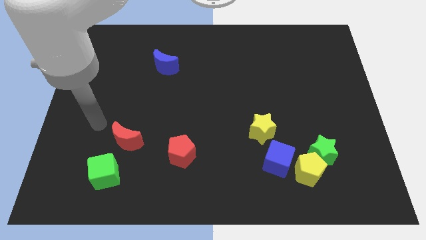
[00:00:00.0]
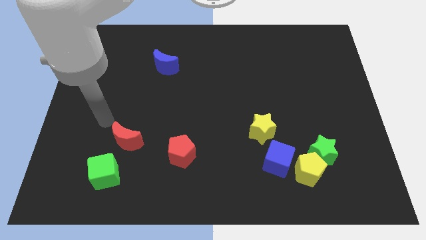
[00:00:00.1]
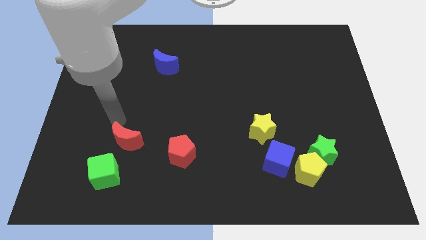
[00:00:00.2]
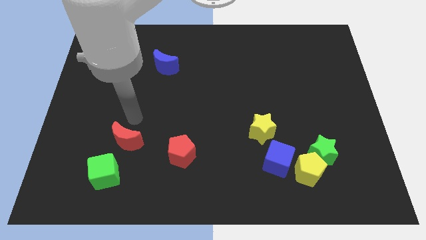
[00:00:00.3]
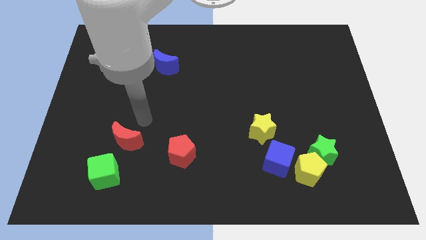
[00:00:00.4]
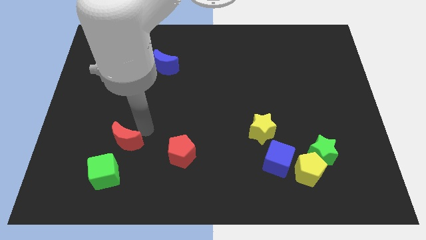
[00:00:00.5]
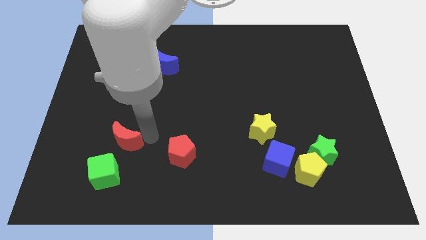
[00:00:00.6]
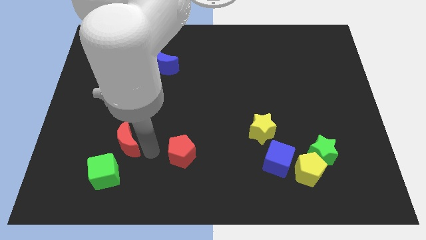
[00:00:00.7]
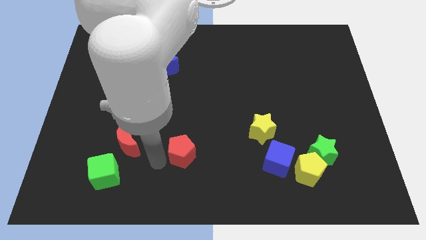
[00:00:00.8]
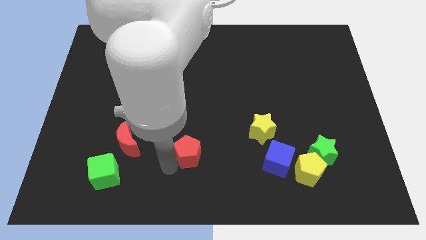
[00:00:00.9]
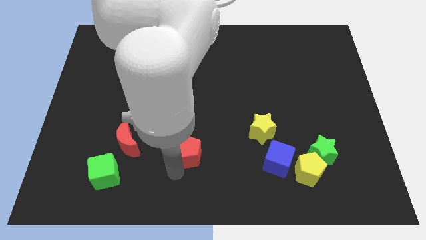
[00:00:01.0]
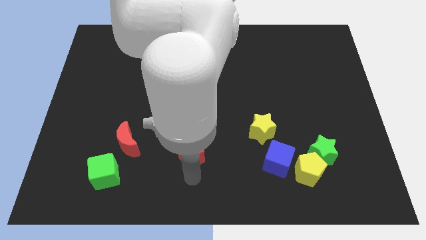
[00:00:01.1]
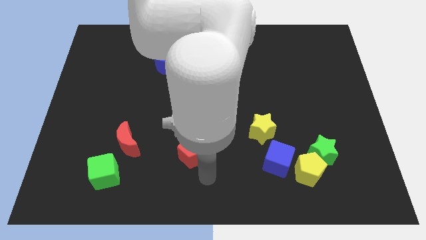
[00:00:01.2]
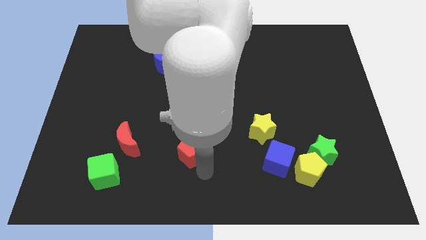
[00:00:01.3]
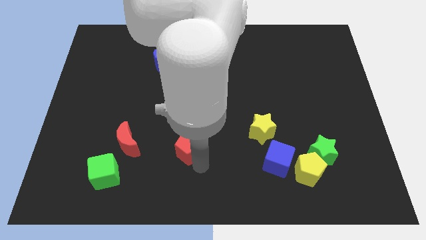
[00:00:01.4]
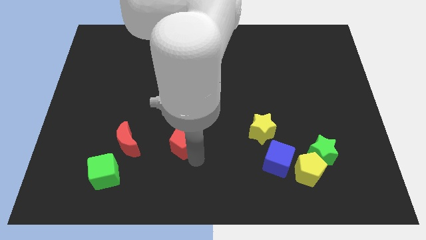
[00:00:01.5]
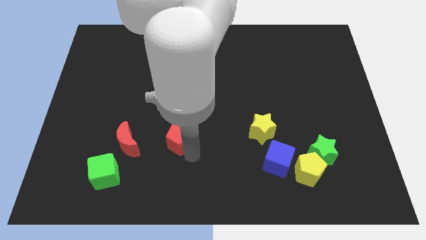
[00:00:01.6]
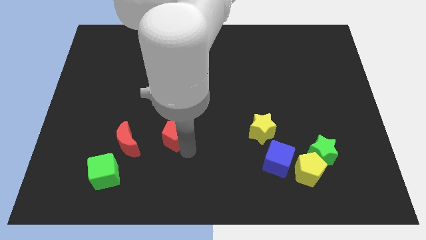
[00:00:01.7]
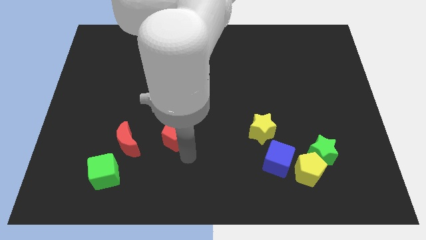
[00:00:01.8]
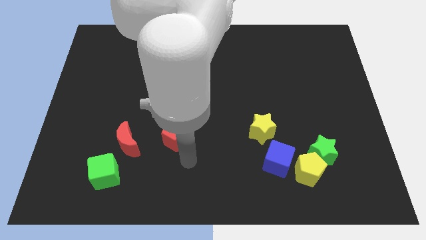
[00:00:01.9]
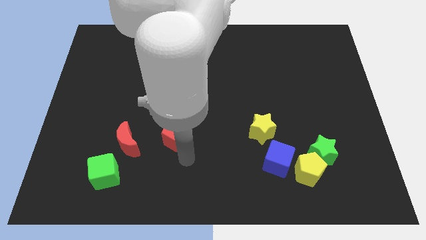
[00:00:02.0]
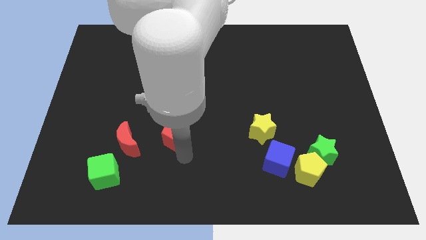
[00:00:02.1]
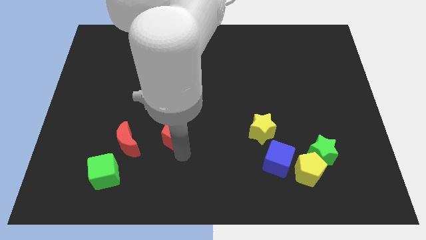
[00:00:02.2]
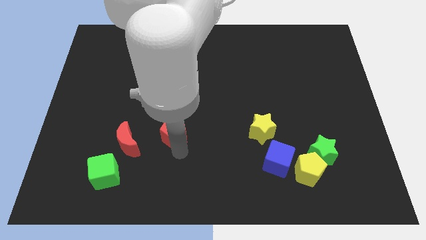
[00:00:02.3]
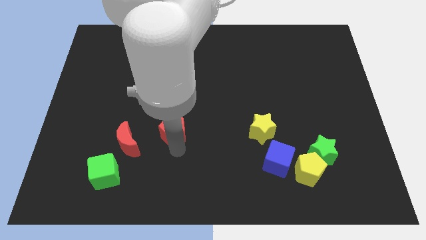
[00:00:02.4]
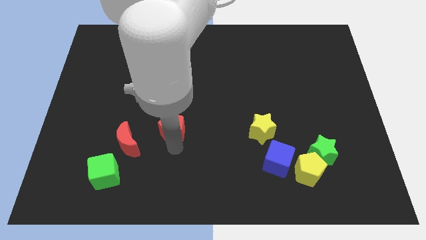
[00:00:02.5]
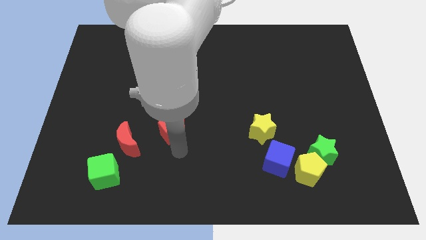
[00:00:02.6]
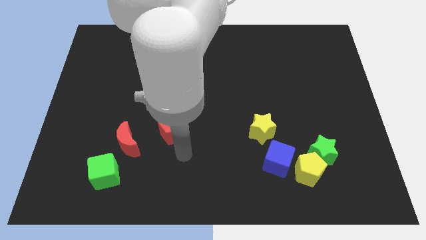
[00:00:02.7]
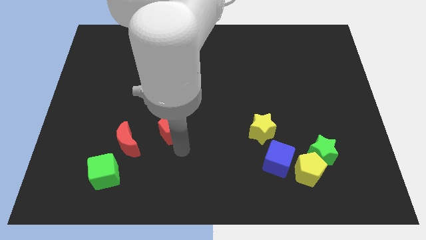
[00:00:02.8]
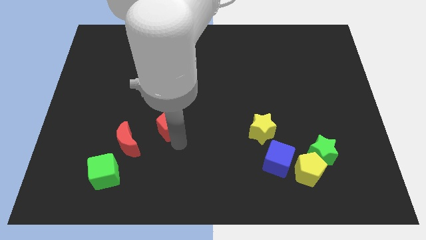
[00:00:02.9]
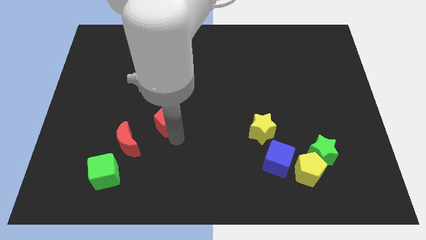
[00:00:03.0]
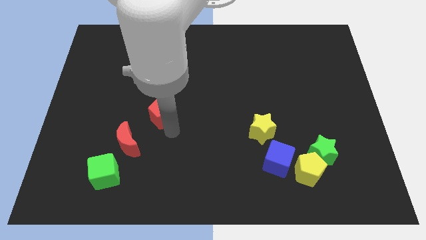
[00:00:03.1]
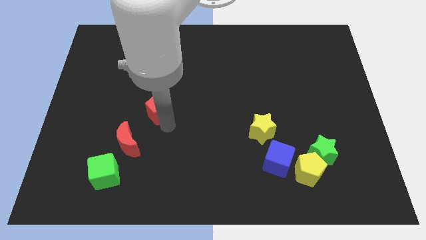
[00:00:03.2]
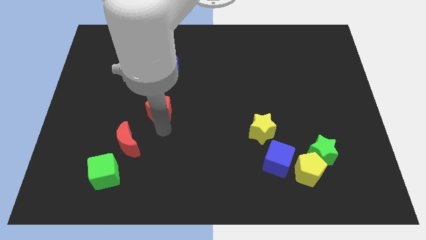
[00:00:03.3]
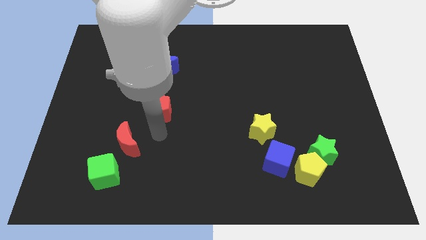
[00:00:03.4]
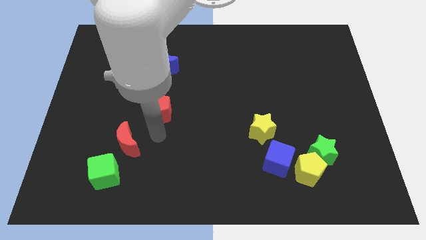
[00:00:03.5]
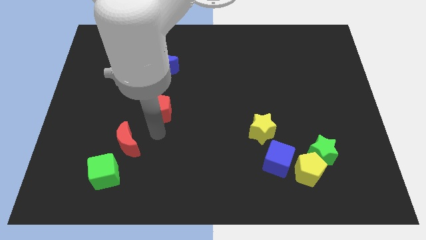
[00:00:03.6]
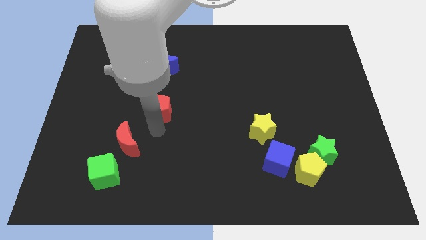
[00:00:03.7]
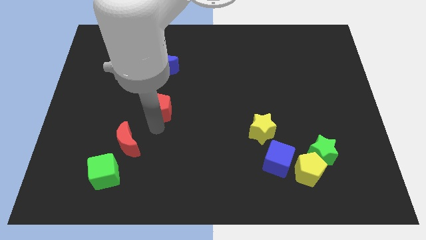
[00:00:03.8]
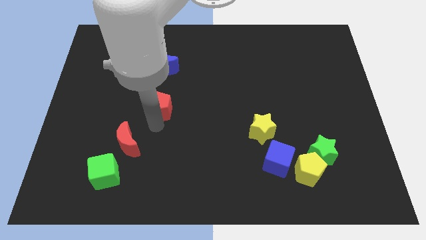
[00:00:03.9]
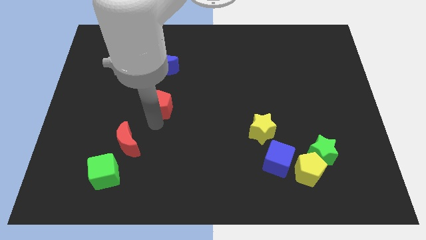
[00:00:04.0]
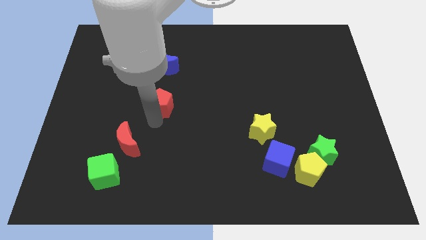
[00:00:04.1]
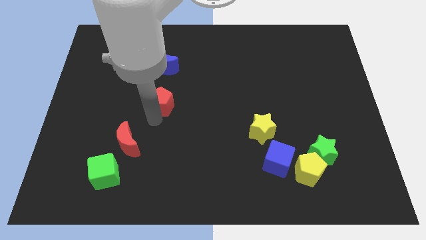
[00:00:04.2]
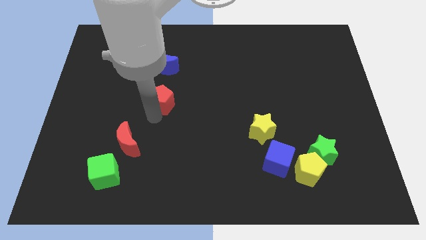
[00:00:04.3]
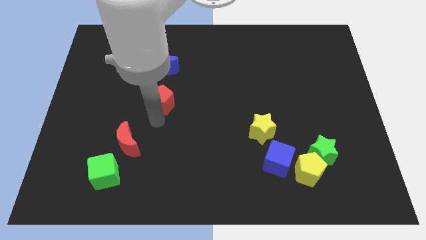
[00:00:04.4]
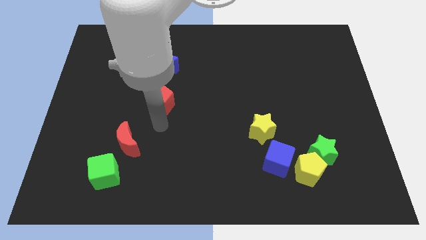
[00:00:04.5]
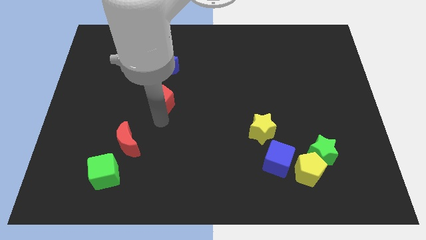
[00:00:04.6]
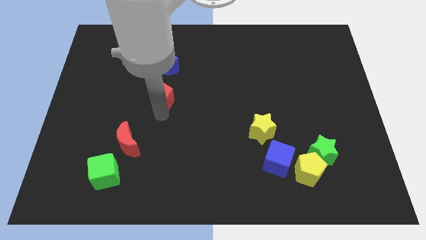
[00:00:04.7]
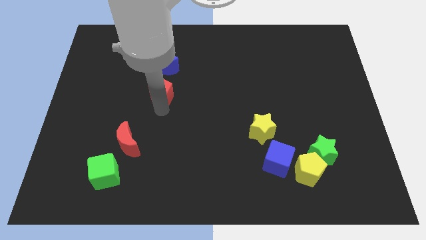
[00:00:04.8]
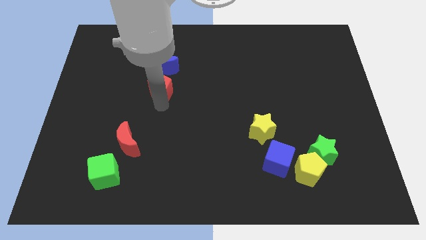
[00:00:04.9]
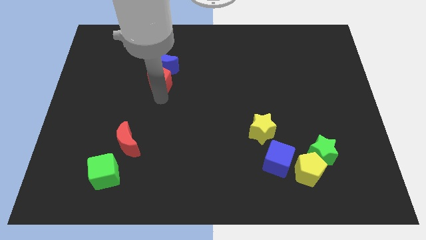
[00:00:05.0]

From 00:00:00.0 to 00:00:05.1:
put the red pentagon next to the blue moon

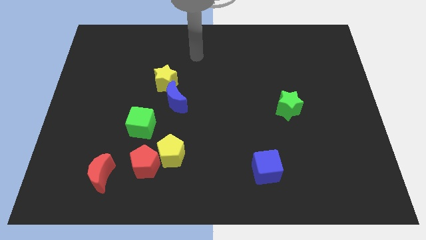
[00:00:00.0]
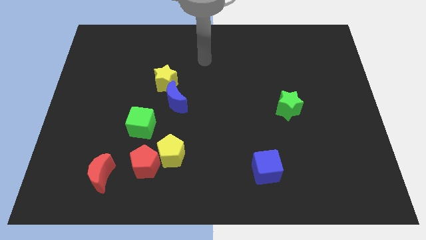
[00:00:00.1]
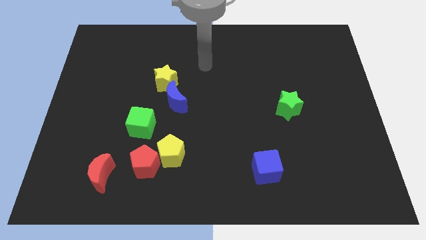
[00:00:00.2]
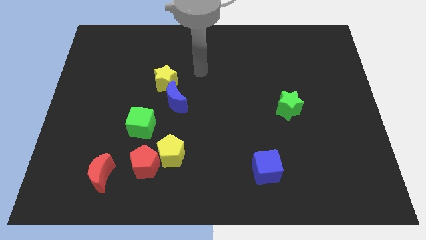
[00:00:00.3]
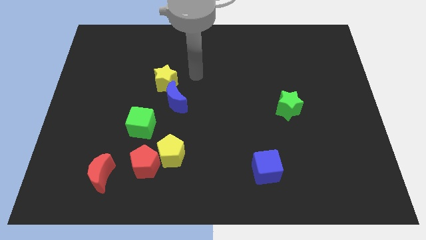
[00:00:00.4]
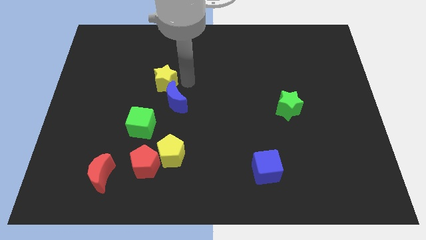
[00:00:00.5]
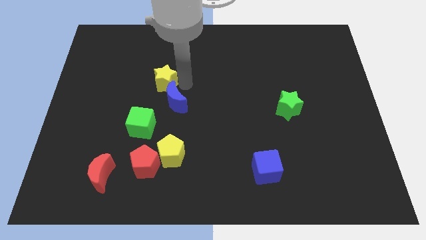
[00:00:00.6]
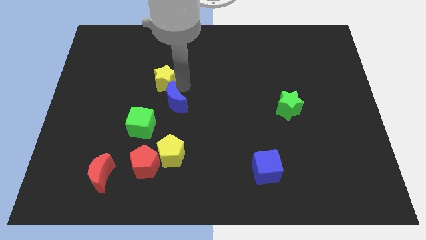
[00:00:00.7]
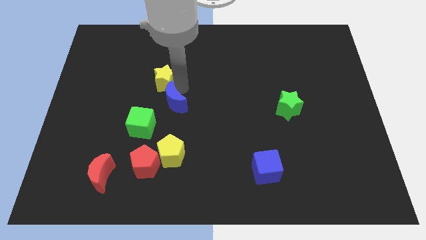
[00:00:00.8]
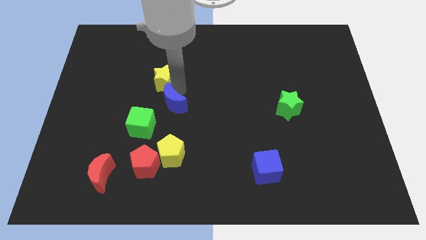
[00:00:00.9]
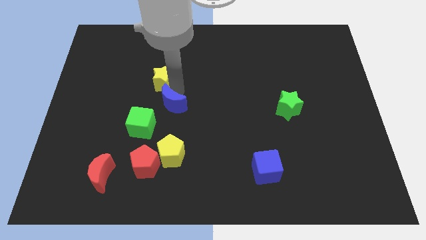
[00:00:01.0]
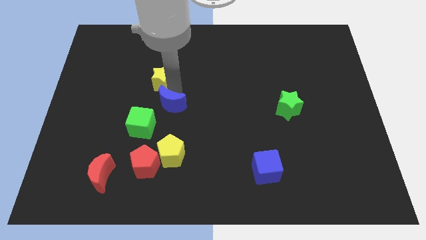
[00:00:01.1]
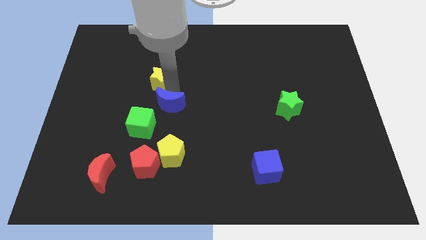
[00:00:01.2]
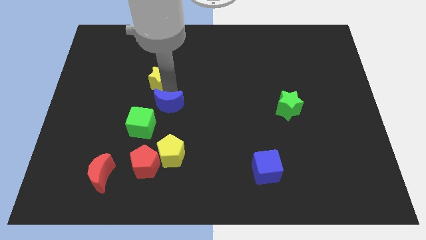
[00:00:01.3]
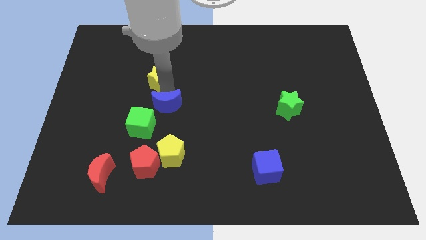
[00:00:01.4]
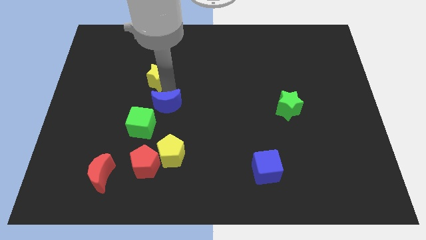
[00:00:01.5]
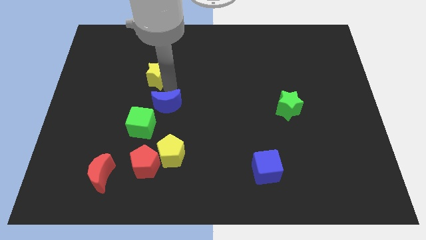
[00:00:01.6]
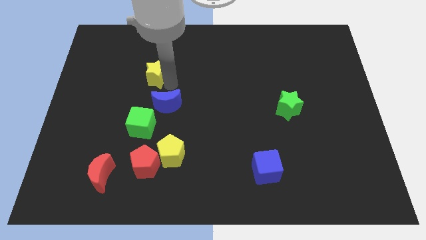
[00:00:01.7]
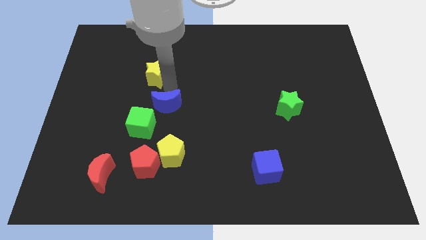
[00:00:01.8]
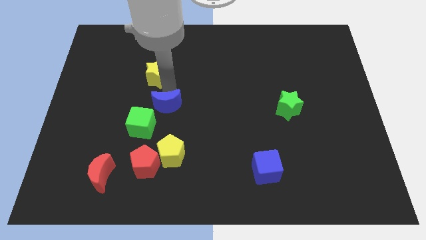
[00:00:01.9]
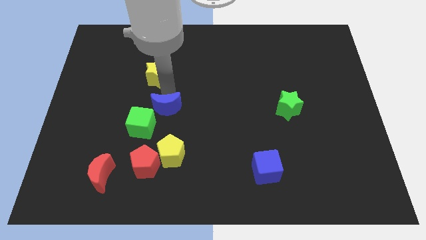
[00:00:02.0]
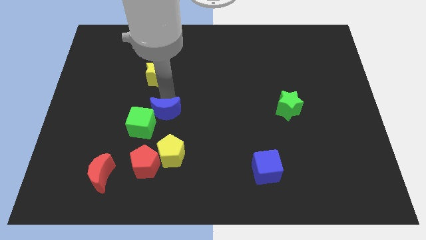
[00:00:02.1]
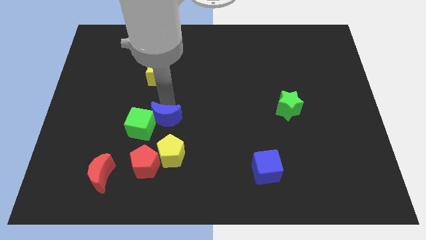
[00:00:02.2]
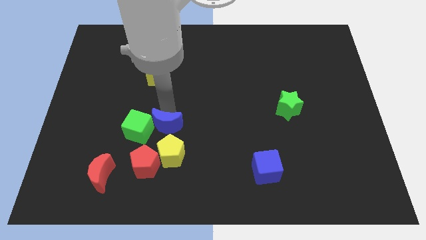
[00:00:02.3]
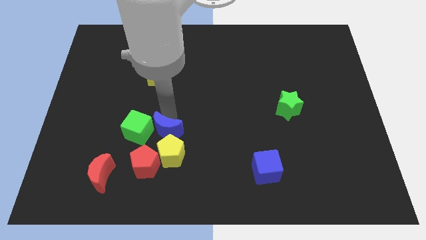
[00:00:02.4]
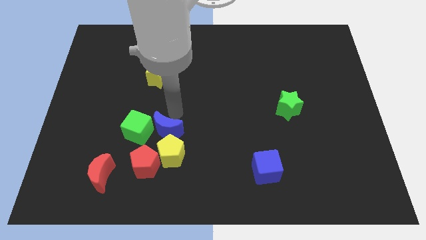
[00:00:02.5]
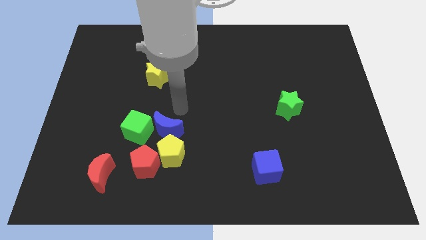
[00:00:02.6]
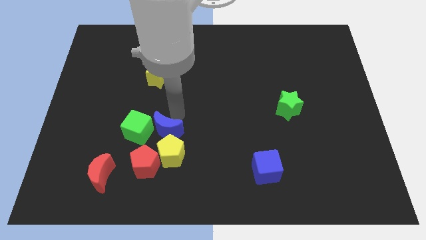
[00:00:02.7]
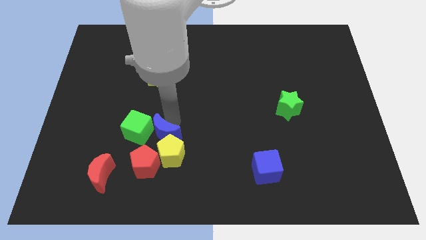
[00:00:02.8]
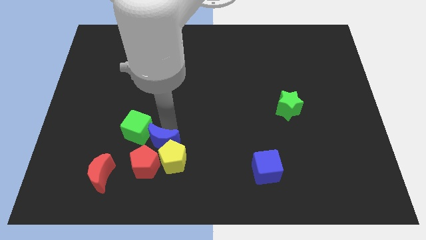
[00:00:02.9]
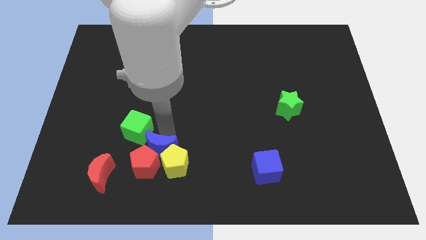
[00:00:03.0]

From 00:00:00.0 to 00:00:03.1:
push the blue moon towards the red pentagon
